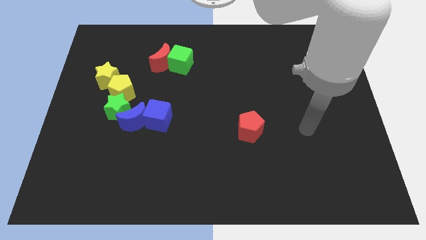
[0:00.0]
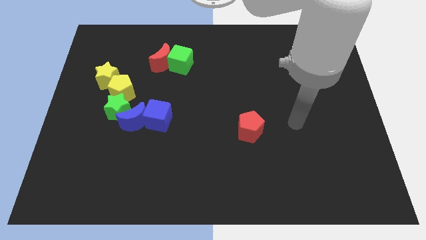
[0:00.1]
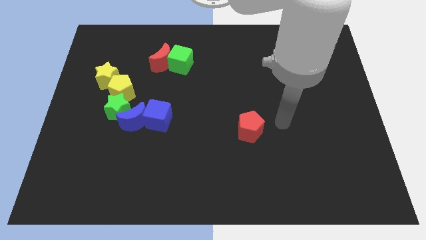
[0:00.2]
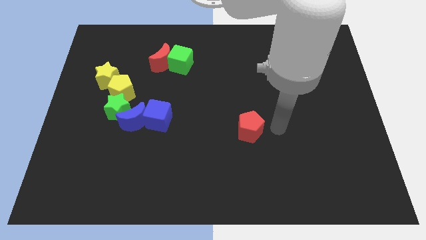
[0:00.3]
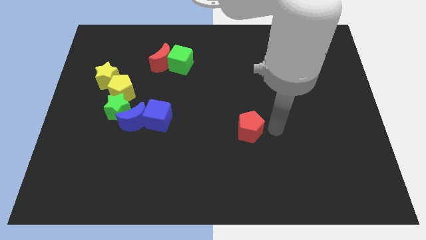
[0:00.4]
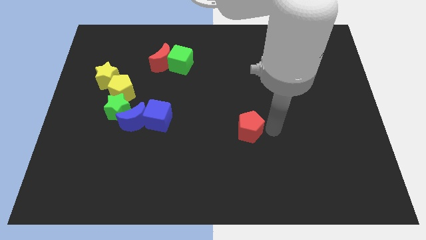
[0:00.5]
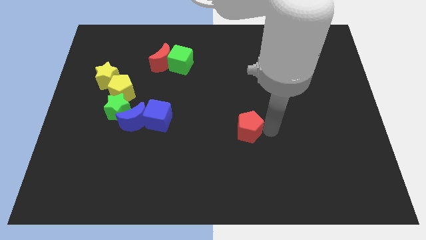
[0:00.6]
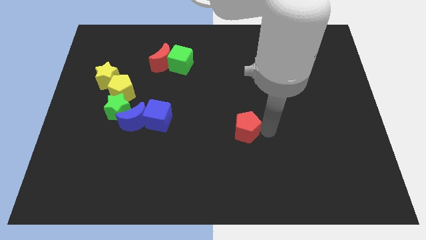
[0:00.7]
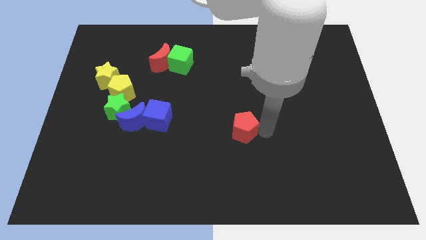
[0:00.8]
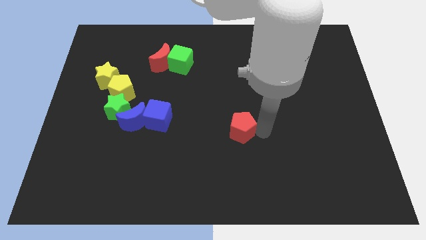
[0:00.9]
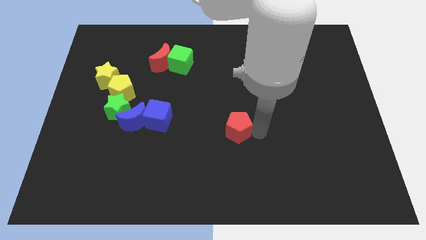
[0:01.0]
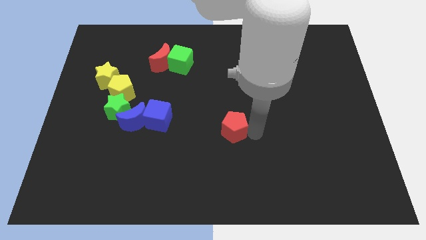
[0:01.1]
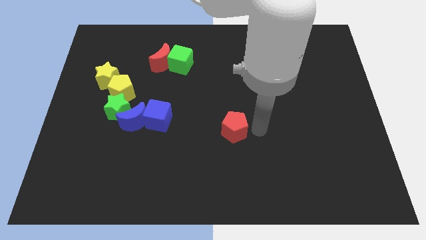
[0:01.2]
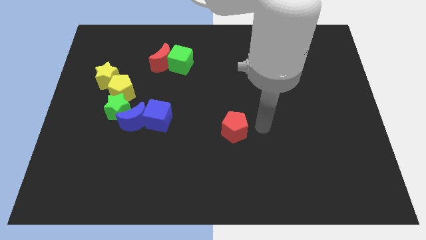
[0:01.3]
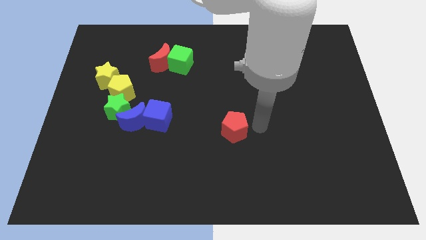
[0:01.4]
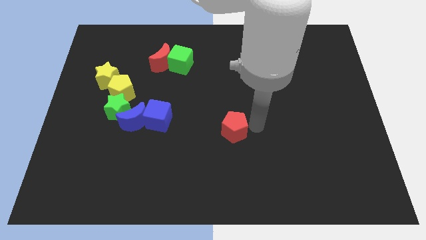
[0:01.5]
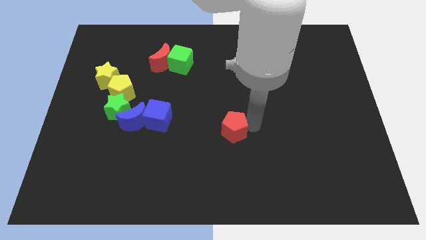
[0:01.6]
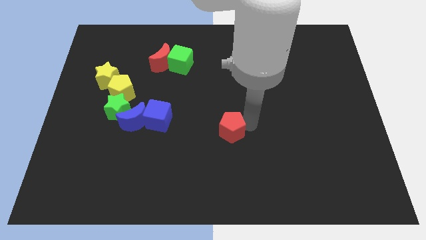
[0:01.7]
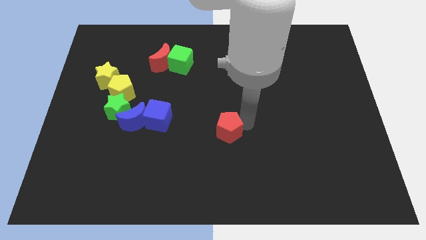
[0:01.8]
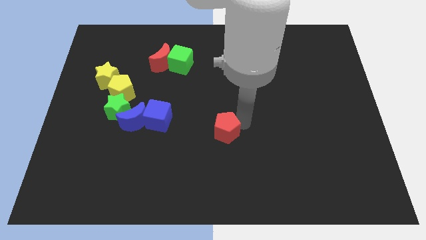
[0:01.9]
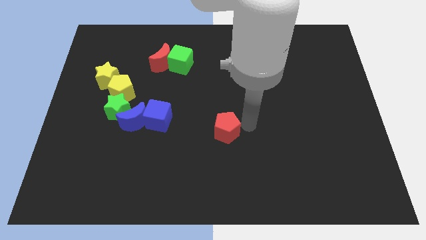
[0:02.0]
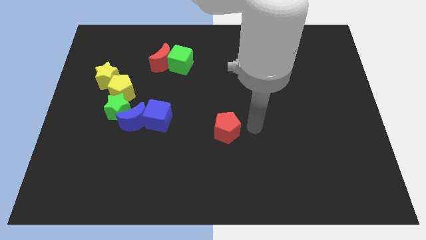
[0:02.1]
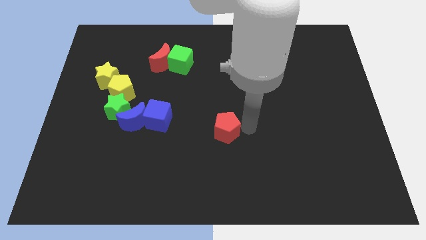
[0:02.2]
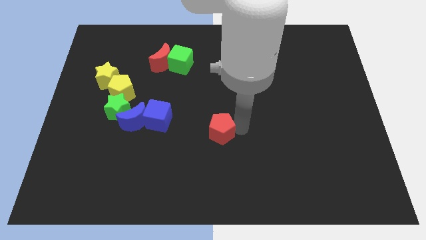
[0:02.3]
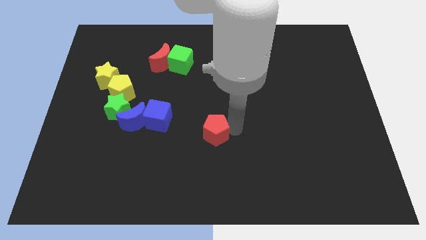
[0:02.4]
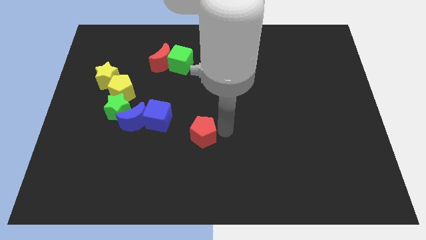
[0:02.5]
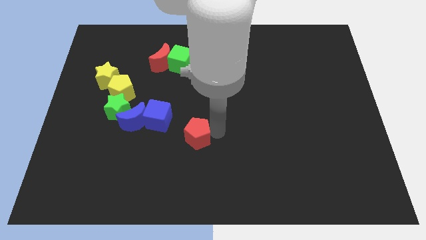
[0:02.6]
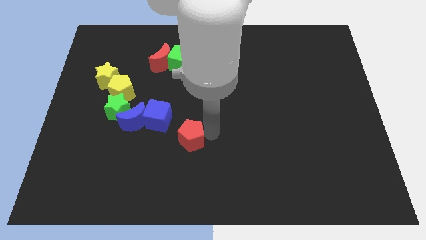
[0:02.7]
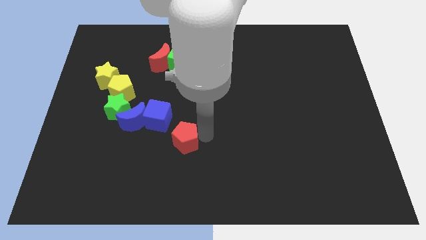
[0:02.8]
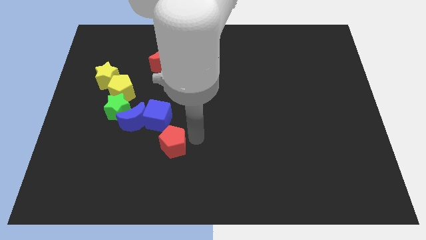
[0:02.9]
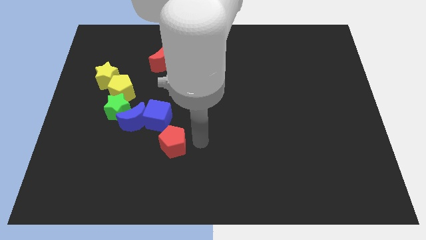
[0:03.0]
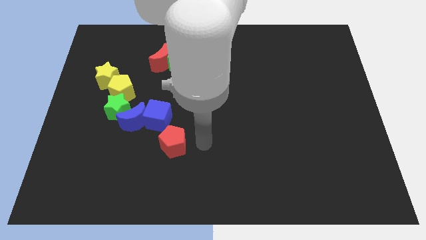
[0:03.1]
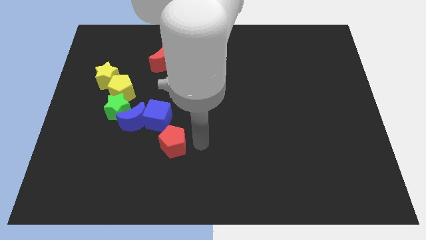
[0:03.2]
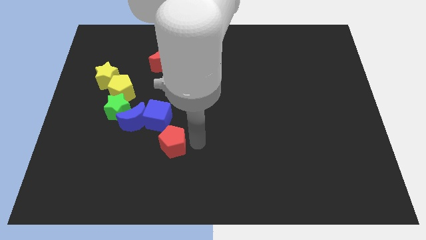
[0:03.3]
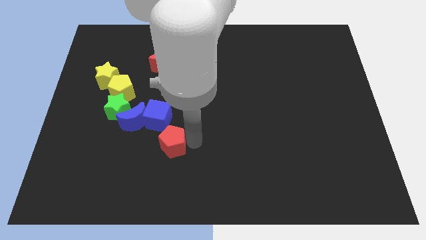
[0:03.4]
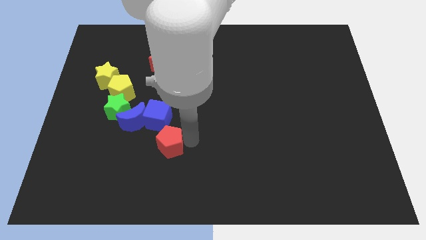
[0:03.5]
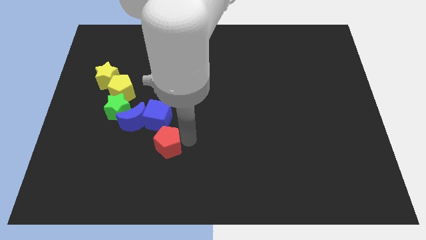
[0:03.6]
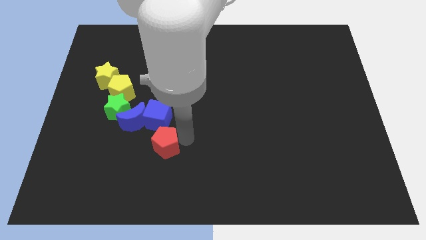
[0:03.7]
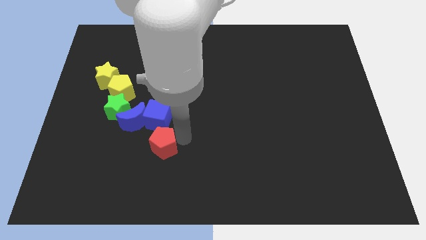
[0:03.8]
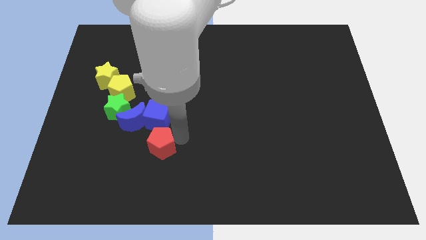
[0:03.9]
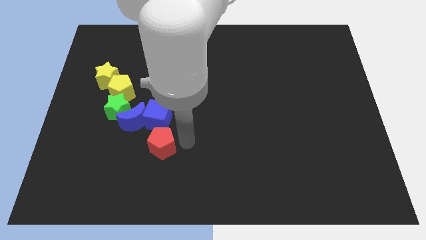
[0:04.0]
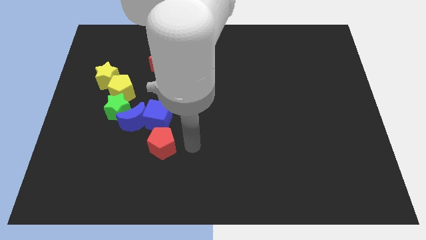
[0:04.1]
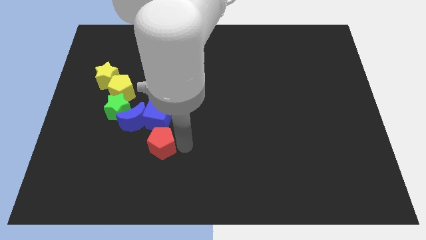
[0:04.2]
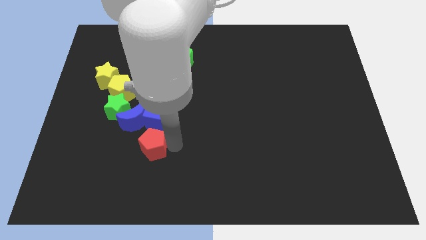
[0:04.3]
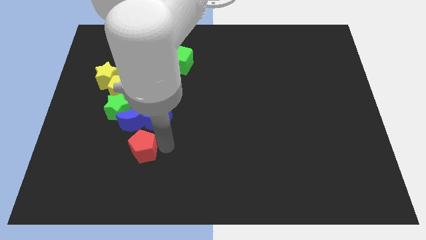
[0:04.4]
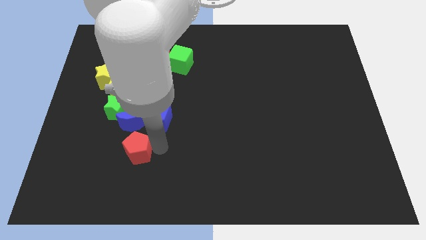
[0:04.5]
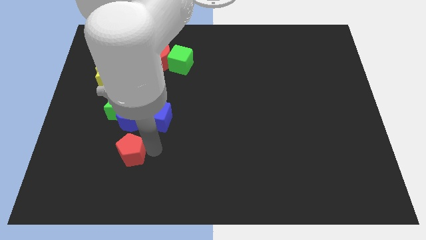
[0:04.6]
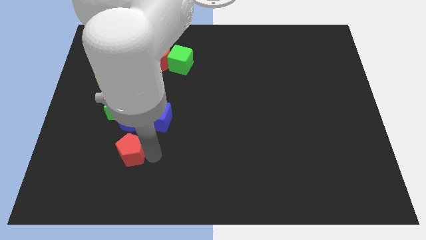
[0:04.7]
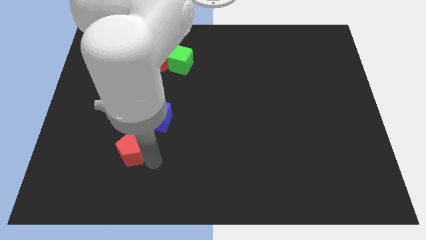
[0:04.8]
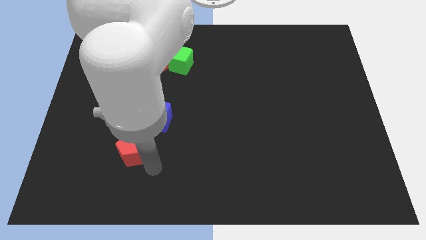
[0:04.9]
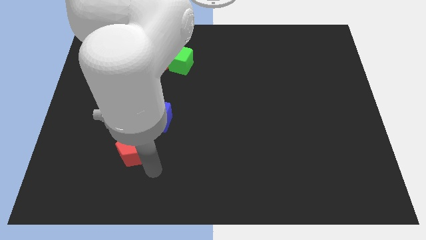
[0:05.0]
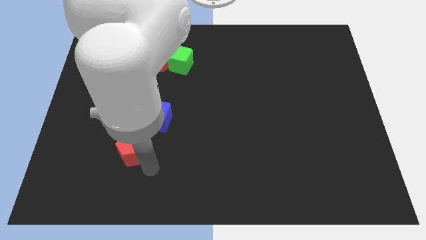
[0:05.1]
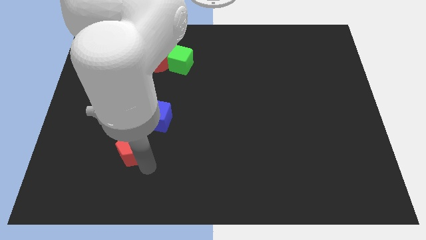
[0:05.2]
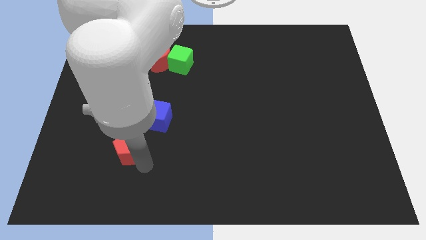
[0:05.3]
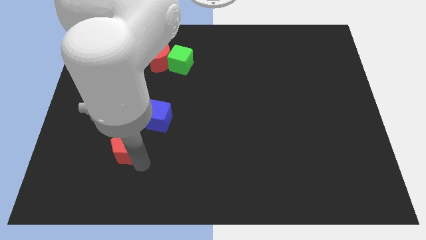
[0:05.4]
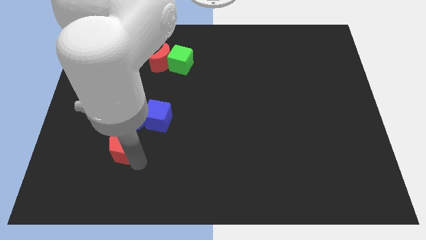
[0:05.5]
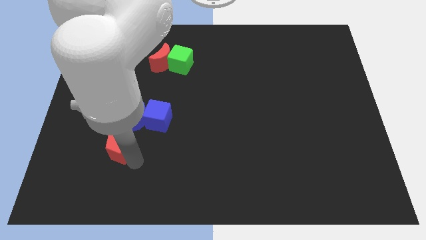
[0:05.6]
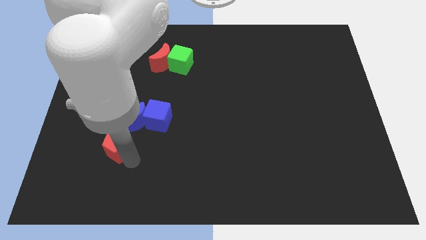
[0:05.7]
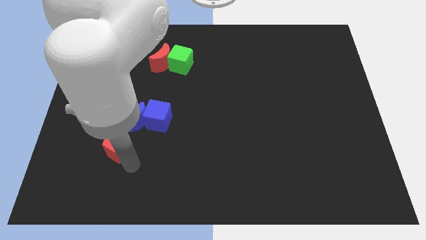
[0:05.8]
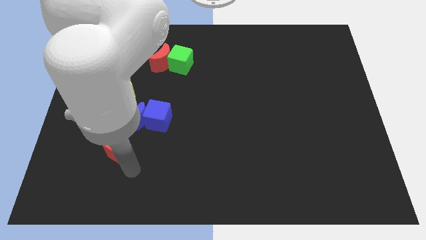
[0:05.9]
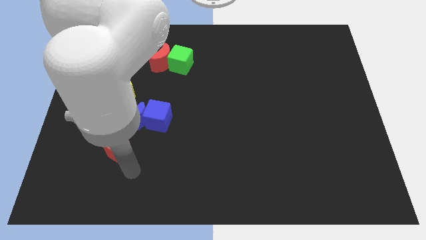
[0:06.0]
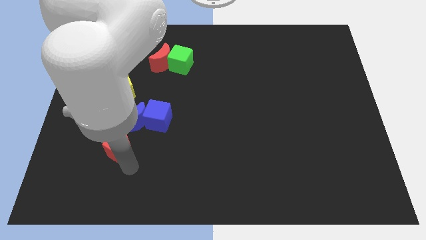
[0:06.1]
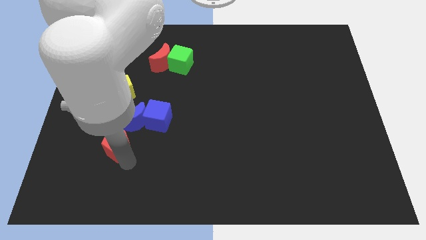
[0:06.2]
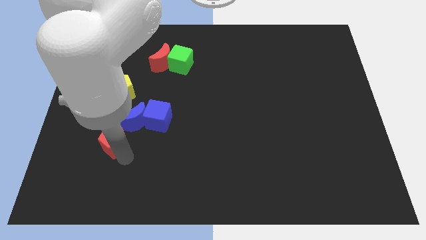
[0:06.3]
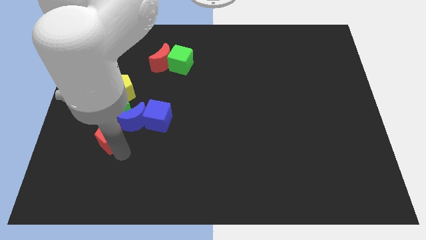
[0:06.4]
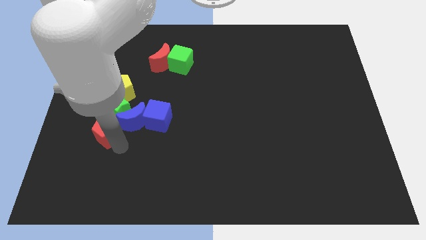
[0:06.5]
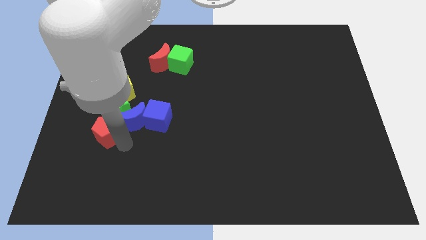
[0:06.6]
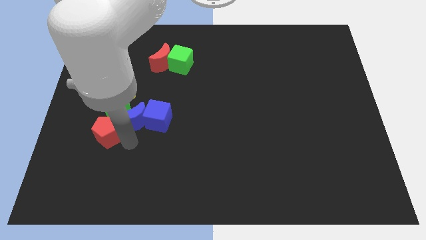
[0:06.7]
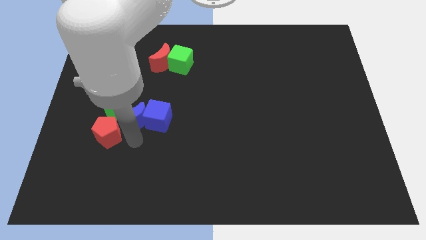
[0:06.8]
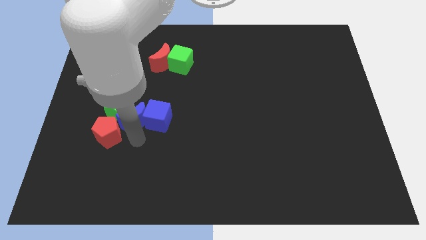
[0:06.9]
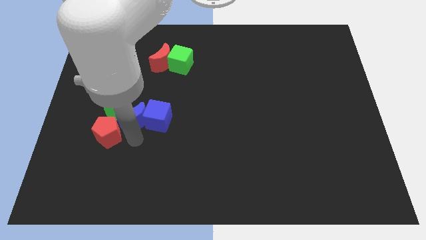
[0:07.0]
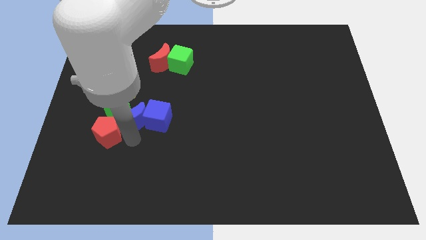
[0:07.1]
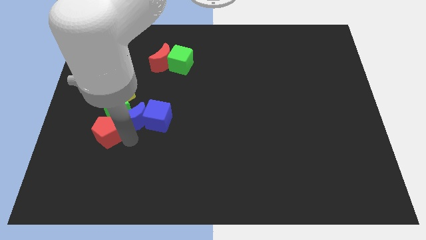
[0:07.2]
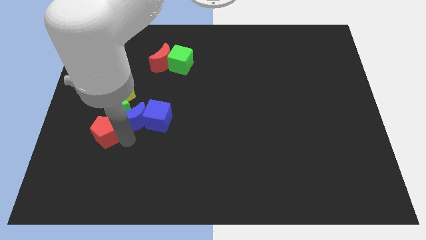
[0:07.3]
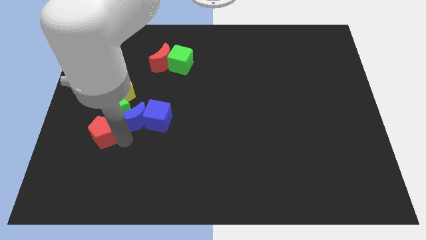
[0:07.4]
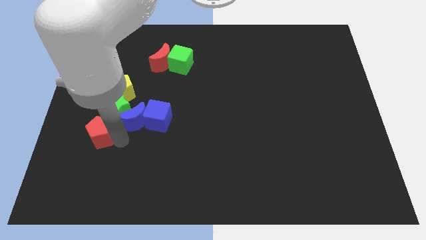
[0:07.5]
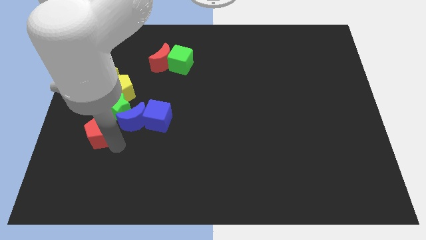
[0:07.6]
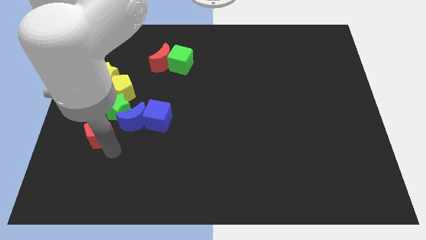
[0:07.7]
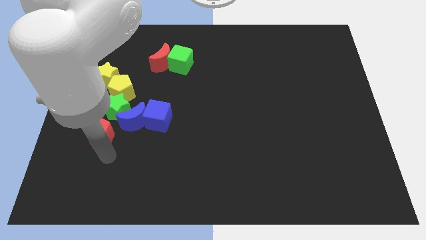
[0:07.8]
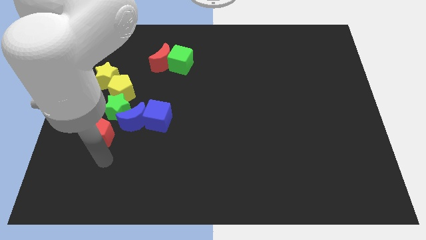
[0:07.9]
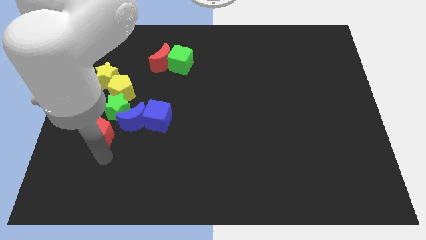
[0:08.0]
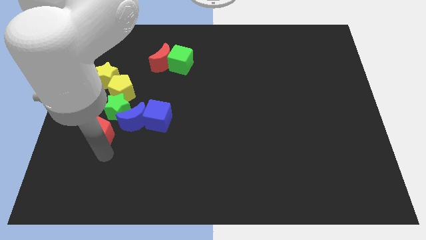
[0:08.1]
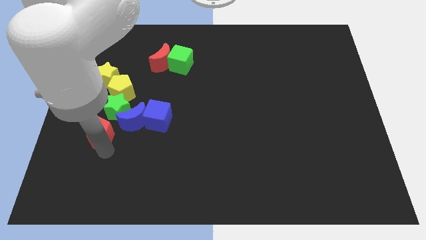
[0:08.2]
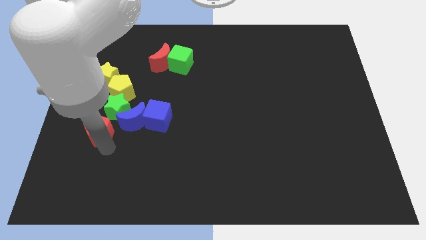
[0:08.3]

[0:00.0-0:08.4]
move the red pentagon to the bottom side of the yellow star
